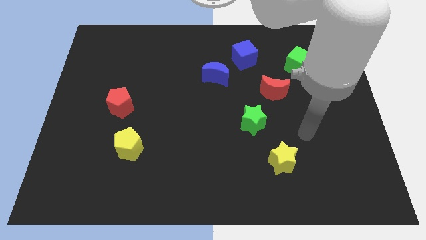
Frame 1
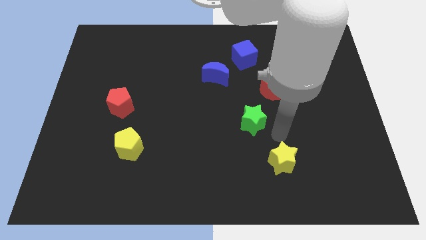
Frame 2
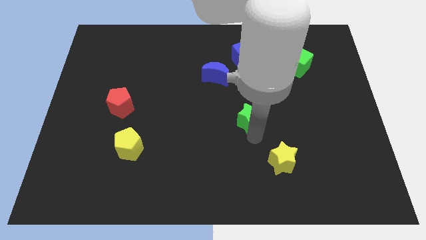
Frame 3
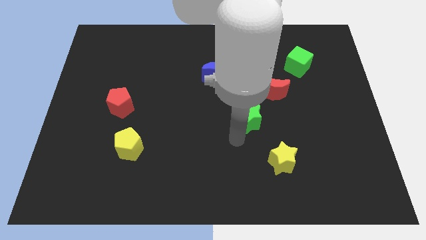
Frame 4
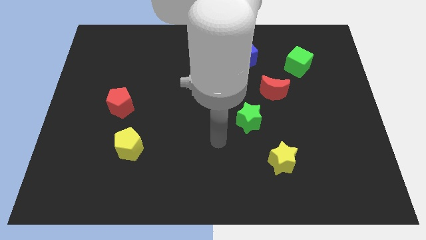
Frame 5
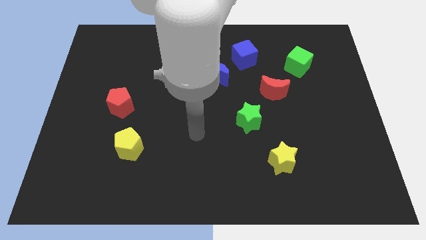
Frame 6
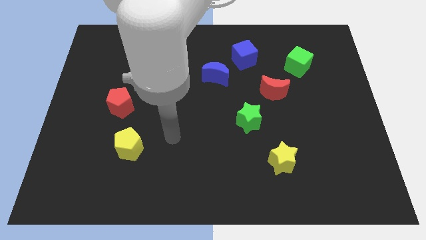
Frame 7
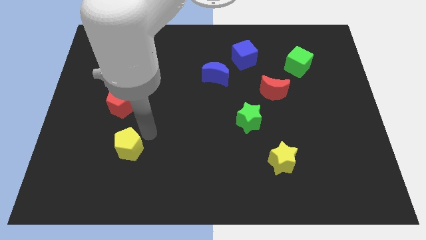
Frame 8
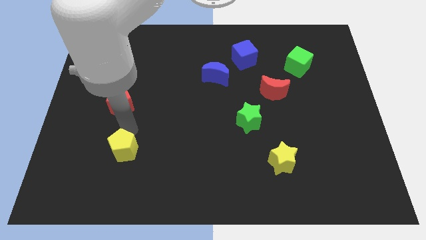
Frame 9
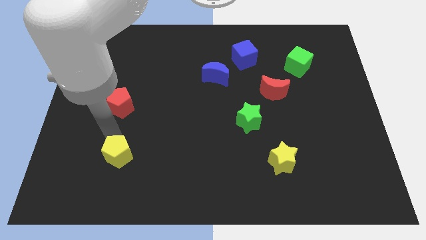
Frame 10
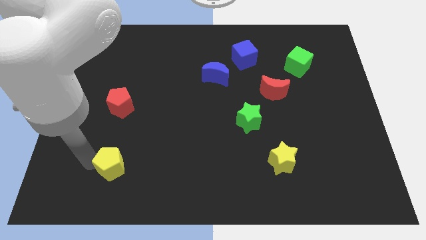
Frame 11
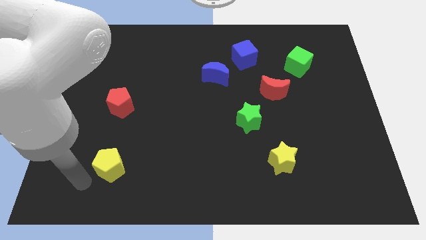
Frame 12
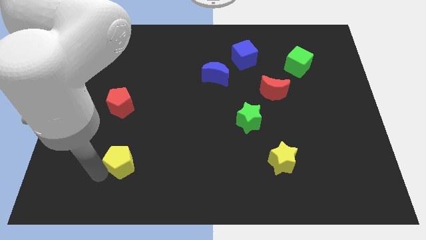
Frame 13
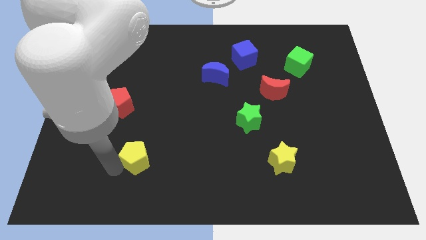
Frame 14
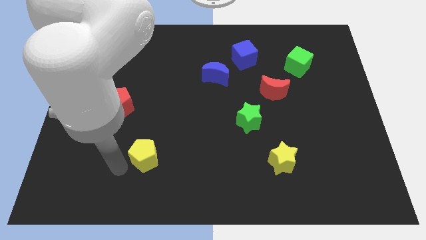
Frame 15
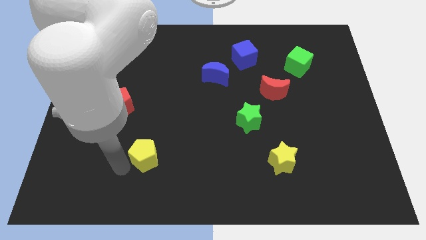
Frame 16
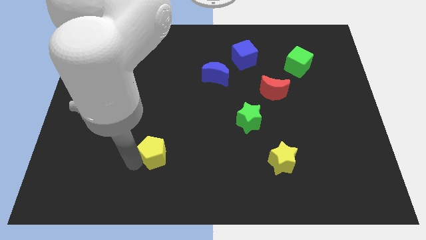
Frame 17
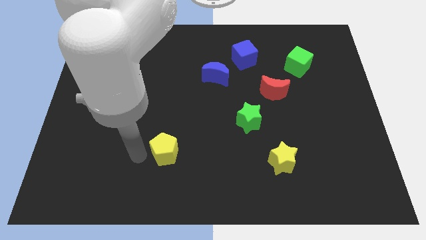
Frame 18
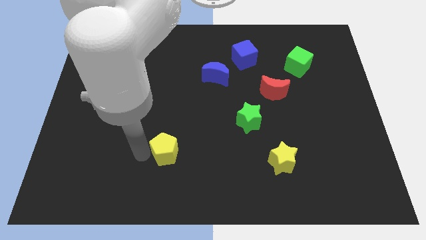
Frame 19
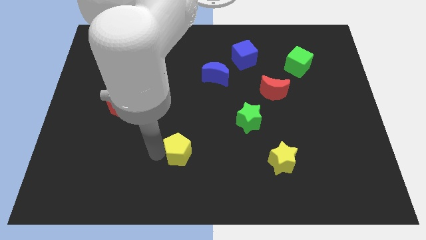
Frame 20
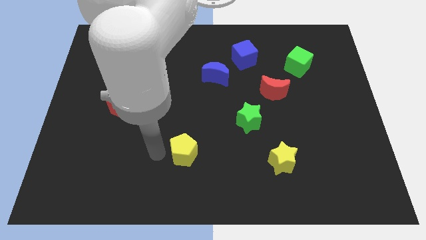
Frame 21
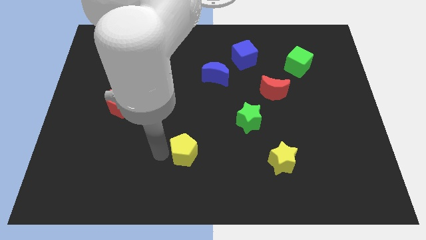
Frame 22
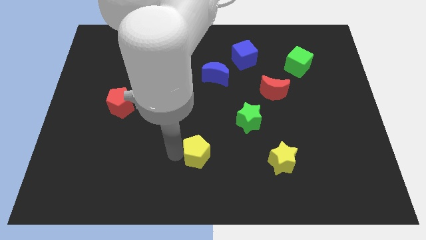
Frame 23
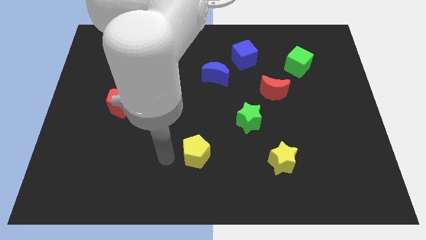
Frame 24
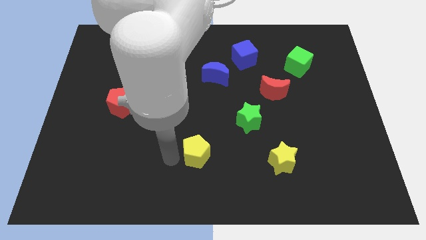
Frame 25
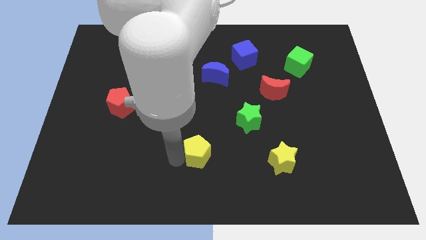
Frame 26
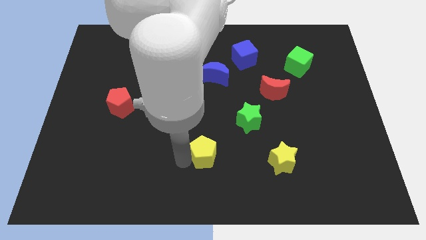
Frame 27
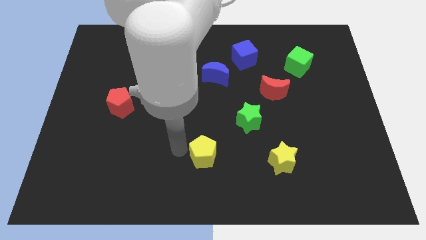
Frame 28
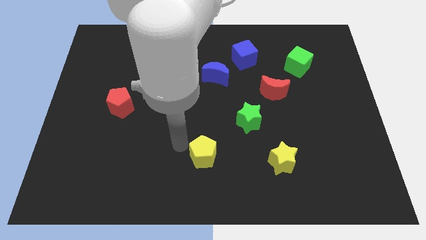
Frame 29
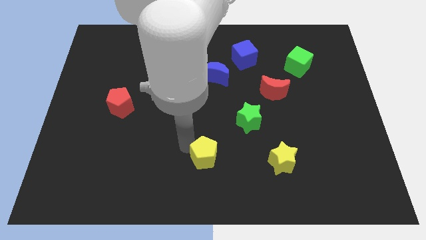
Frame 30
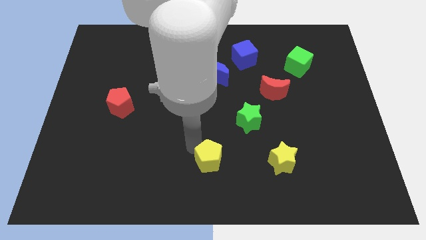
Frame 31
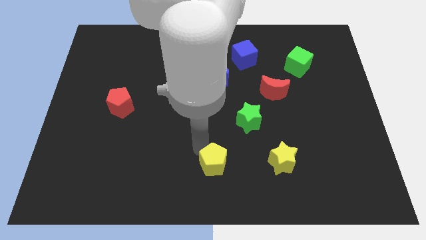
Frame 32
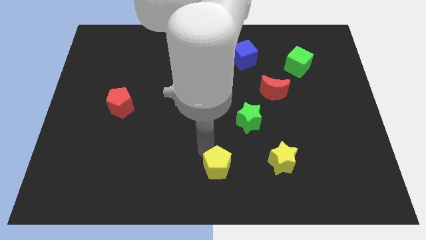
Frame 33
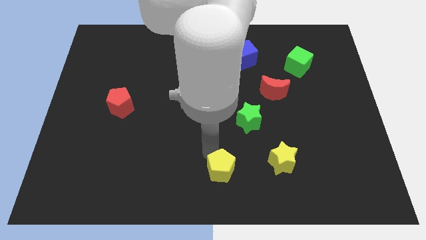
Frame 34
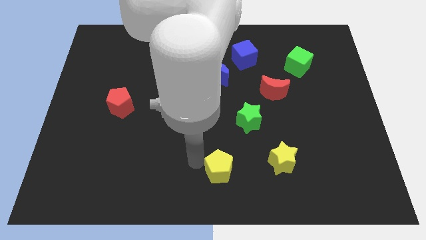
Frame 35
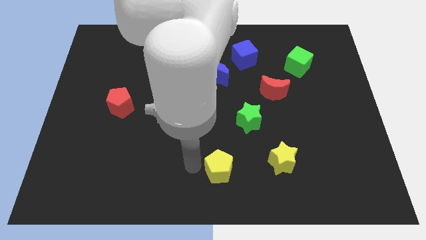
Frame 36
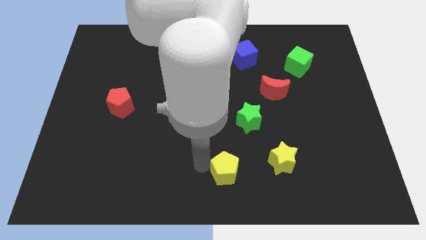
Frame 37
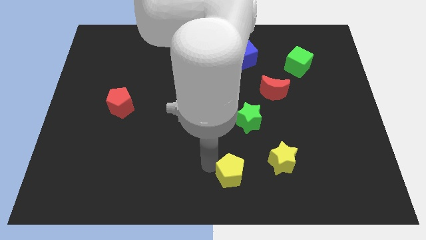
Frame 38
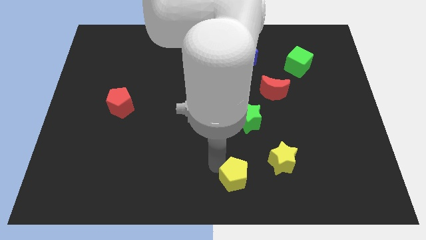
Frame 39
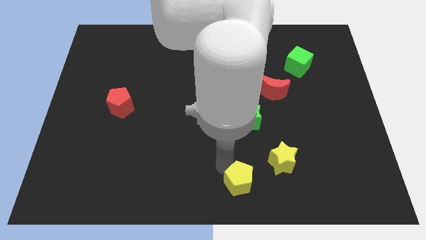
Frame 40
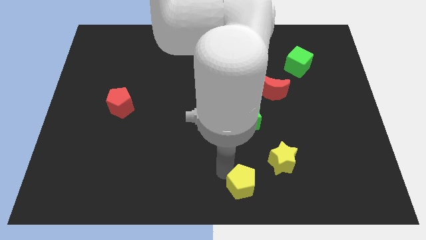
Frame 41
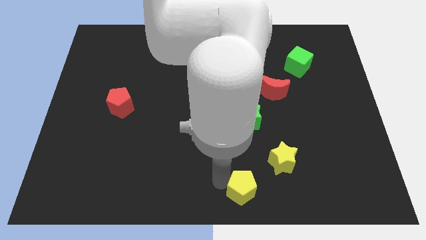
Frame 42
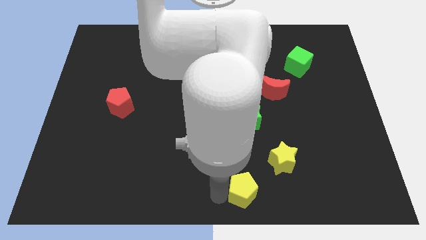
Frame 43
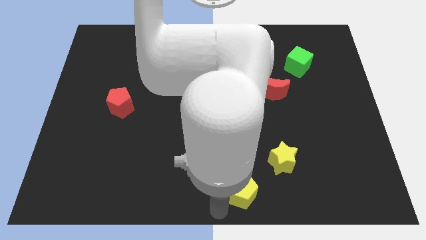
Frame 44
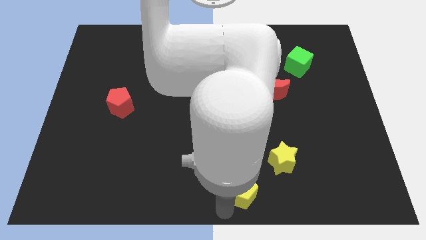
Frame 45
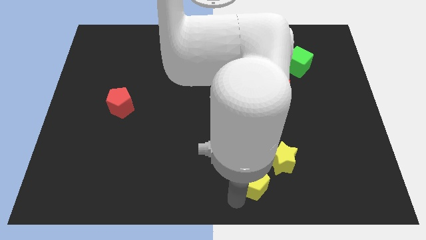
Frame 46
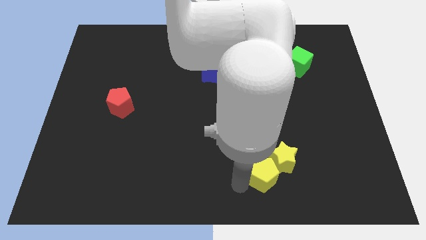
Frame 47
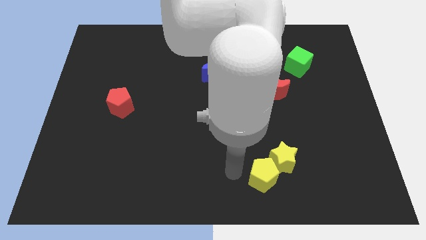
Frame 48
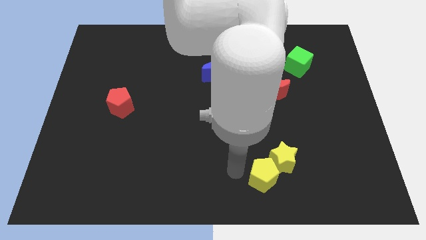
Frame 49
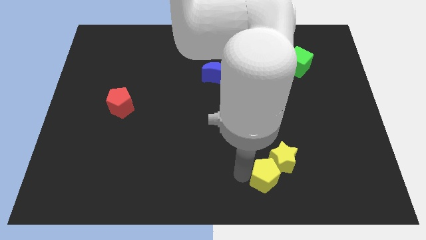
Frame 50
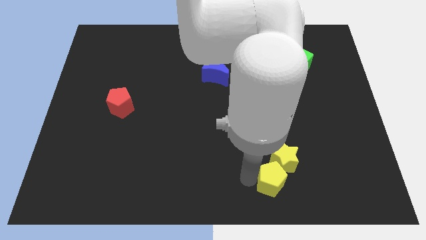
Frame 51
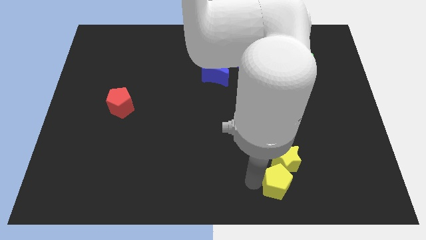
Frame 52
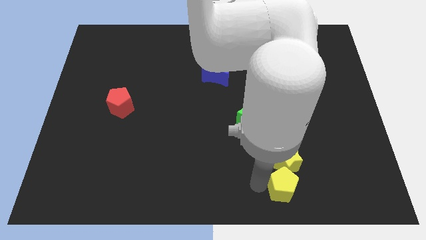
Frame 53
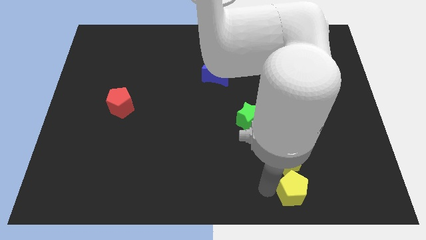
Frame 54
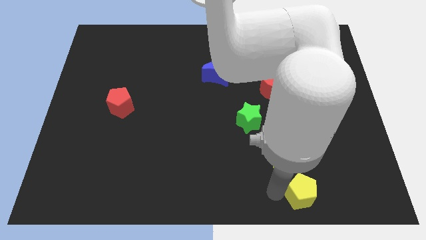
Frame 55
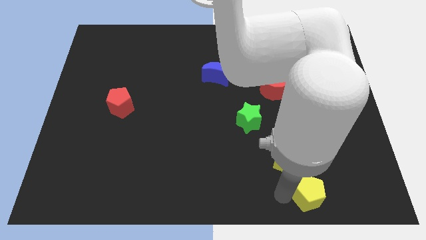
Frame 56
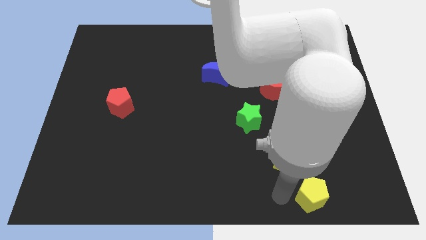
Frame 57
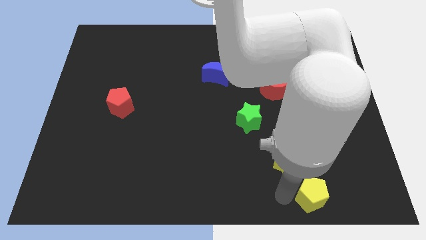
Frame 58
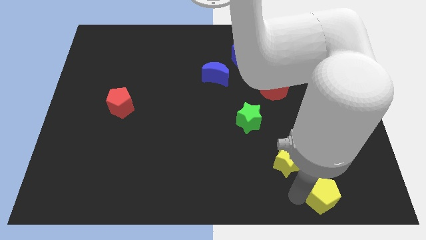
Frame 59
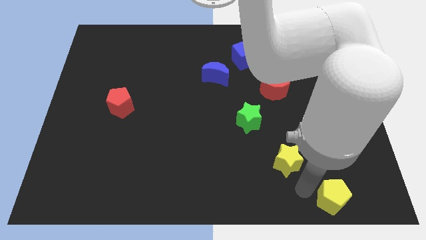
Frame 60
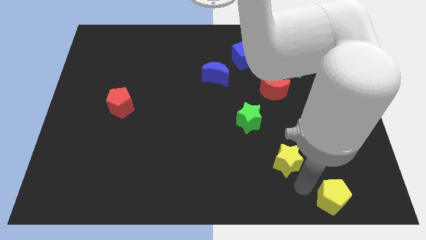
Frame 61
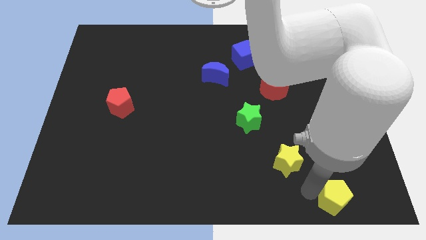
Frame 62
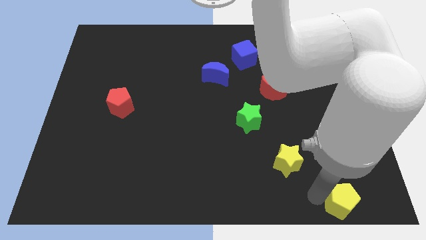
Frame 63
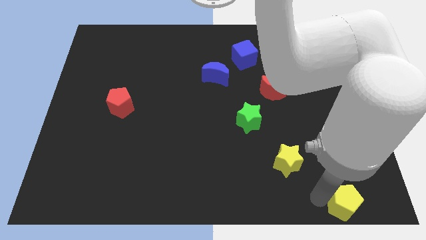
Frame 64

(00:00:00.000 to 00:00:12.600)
push the yellow pentagon to the bottom right corner

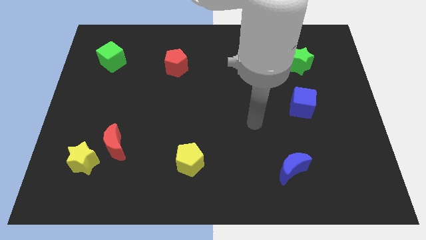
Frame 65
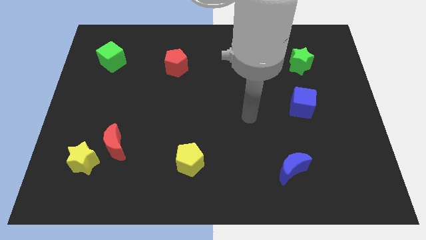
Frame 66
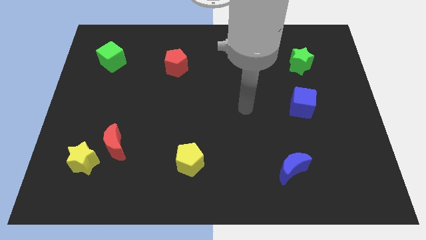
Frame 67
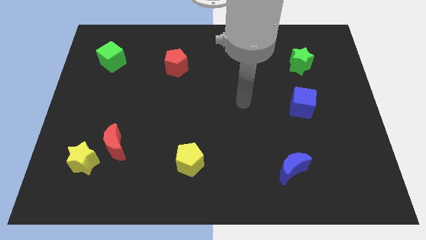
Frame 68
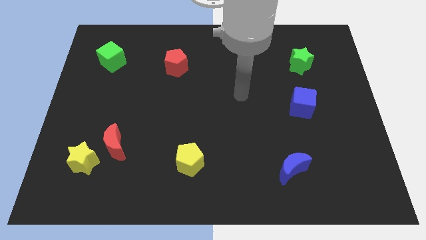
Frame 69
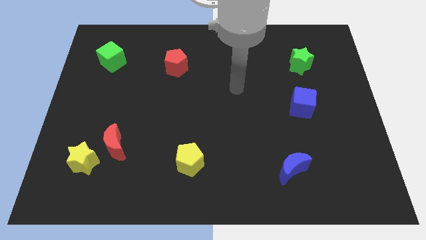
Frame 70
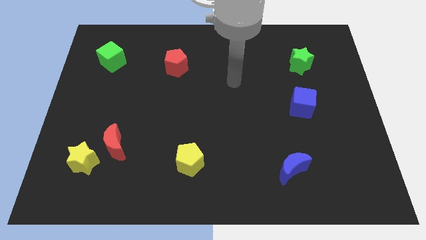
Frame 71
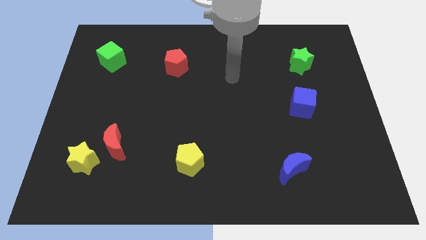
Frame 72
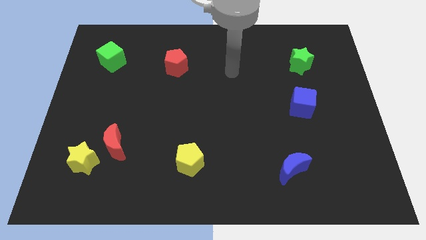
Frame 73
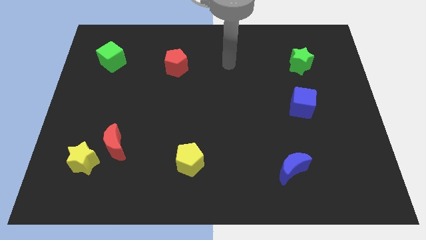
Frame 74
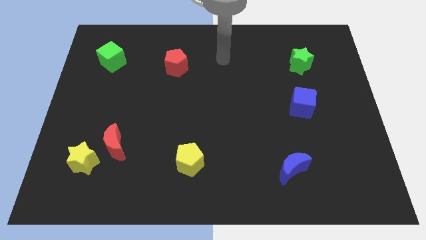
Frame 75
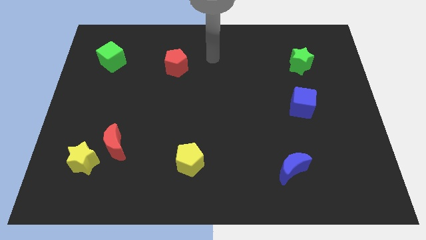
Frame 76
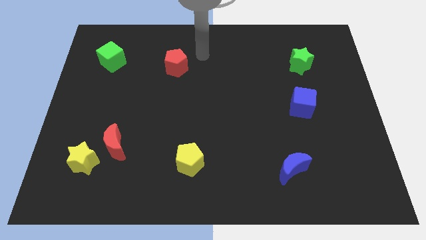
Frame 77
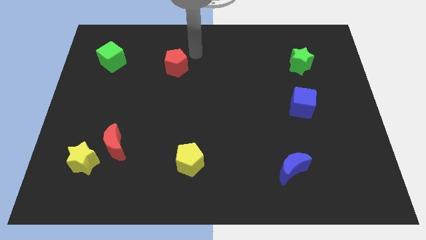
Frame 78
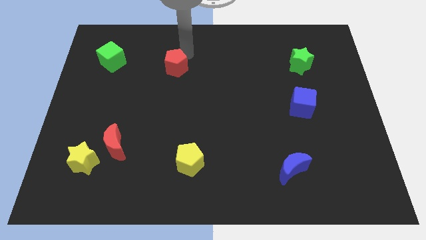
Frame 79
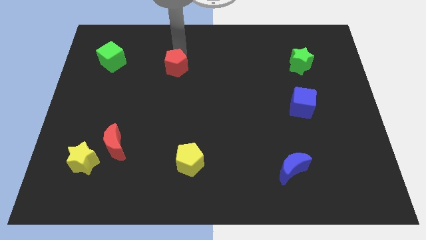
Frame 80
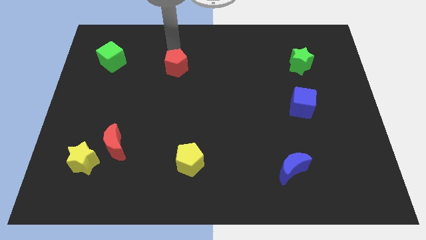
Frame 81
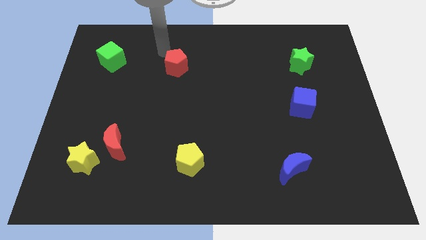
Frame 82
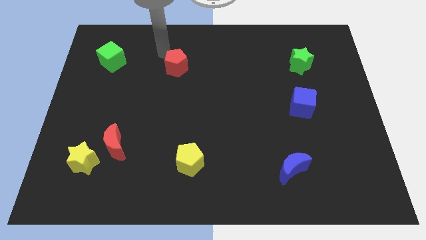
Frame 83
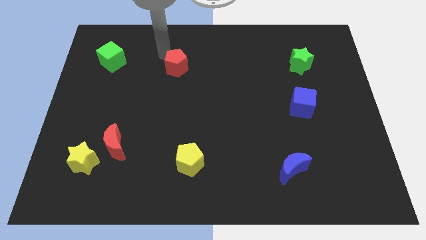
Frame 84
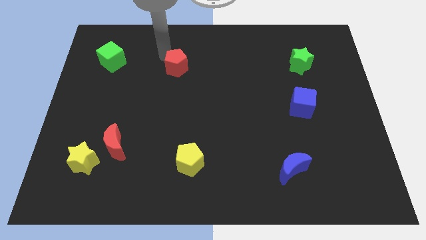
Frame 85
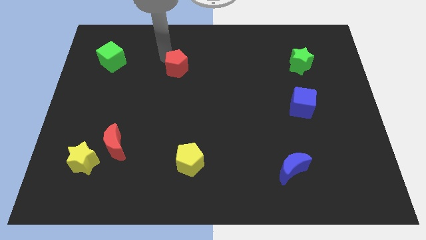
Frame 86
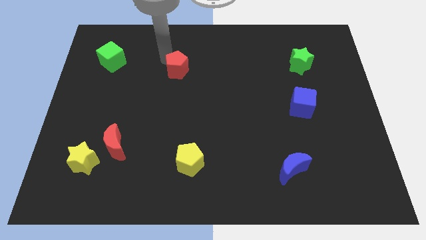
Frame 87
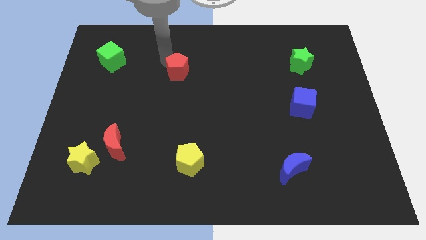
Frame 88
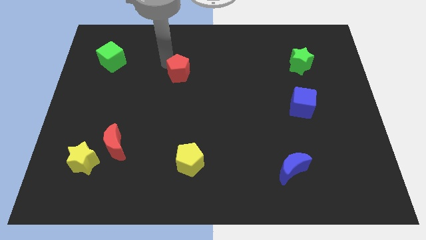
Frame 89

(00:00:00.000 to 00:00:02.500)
push the red pentagon to the middle
